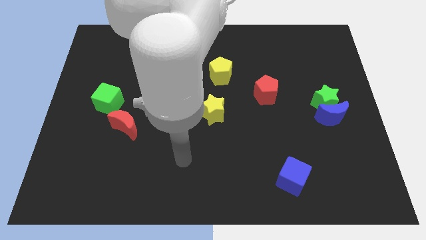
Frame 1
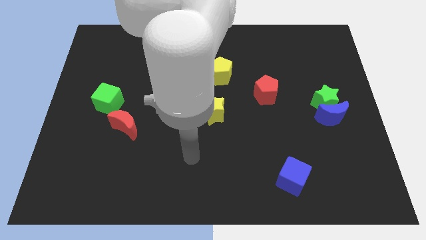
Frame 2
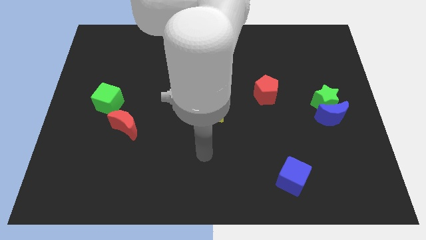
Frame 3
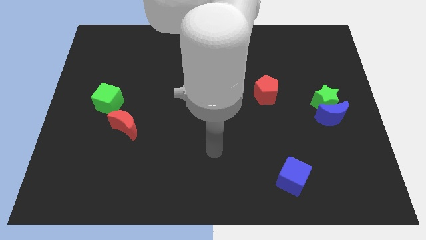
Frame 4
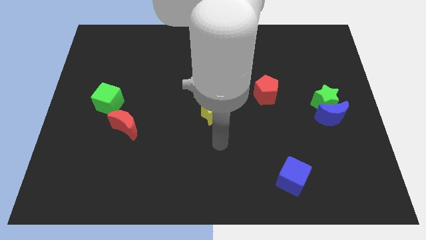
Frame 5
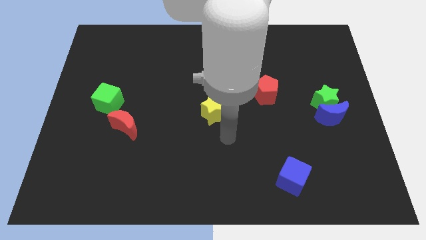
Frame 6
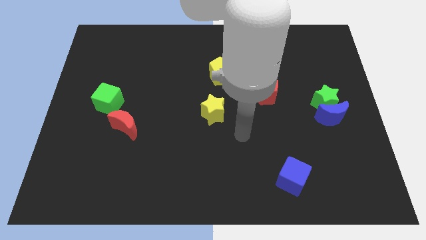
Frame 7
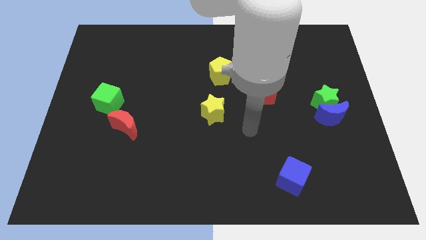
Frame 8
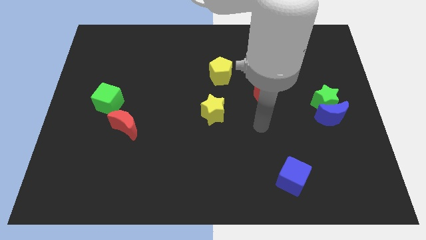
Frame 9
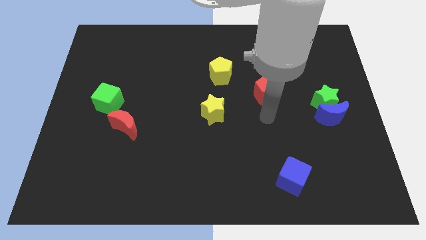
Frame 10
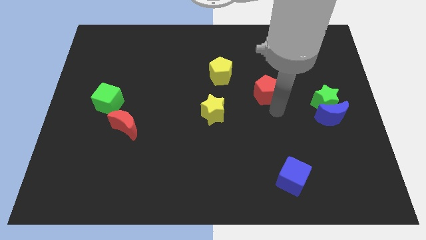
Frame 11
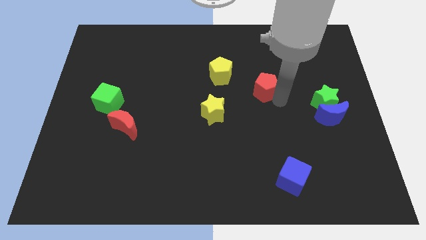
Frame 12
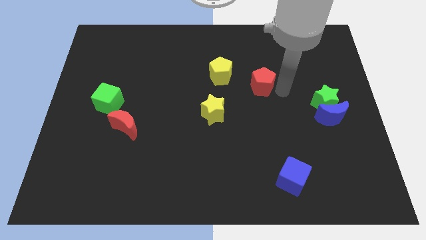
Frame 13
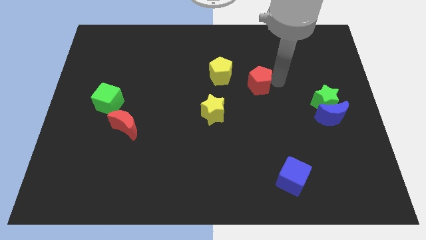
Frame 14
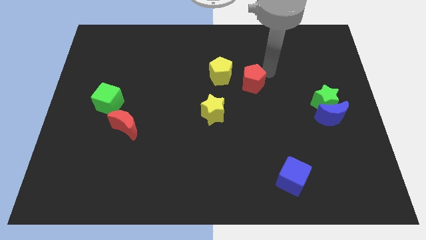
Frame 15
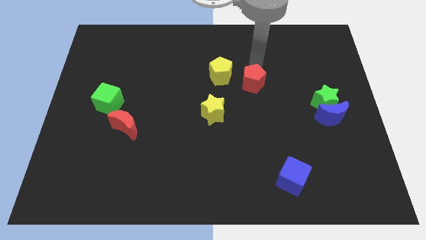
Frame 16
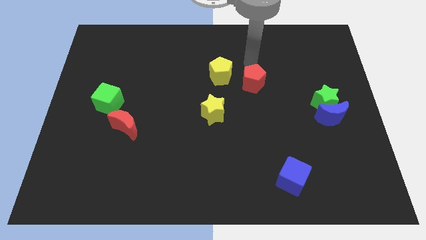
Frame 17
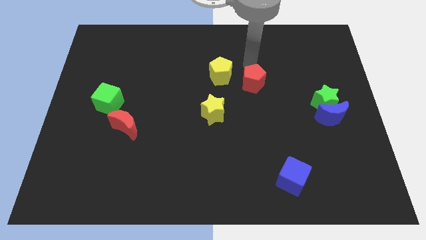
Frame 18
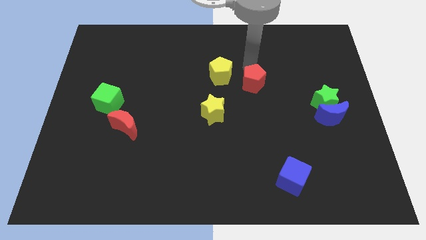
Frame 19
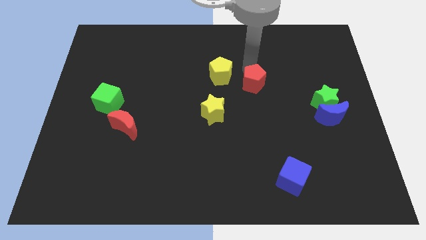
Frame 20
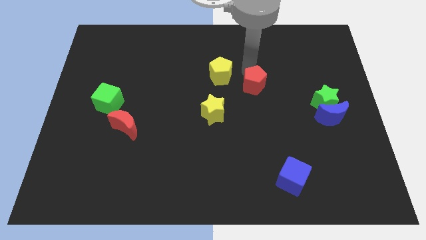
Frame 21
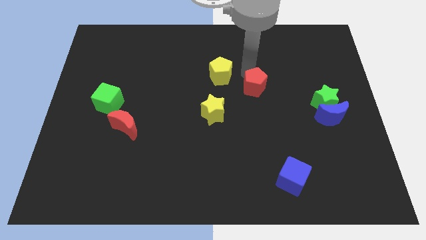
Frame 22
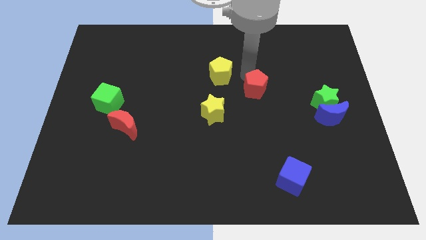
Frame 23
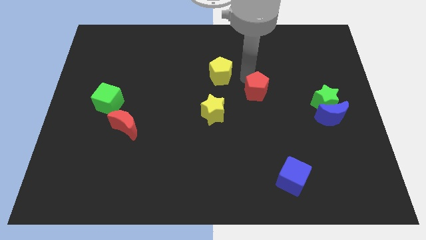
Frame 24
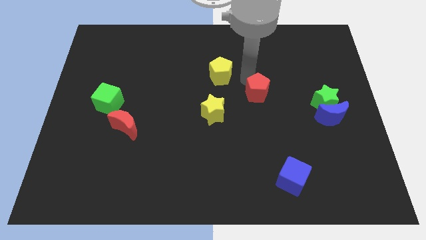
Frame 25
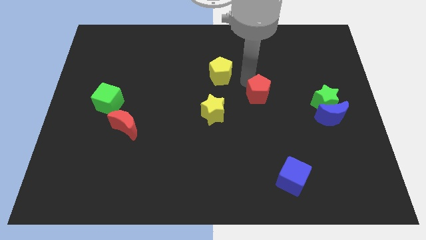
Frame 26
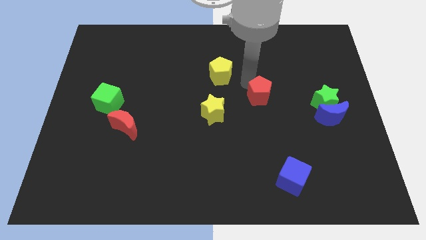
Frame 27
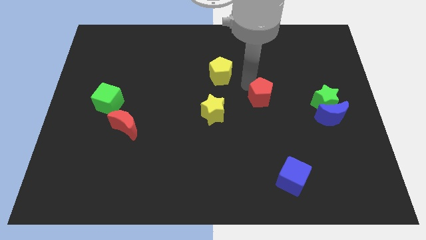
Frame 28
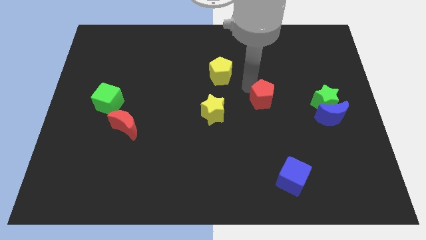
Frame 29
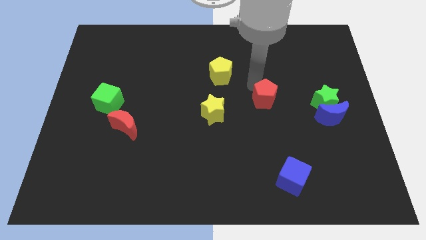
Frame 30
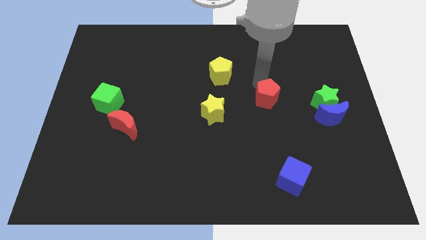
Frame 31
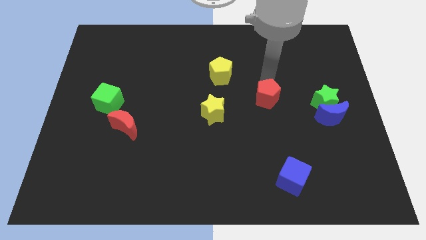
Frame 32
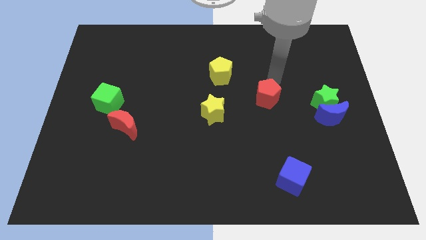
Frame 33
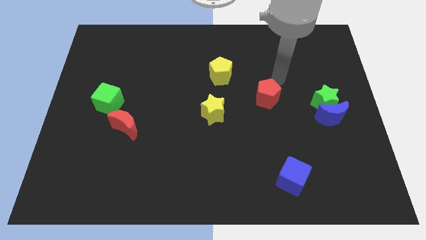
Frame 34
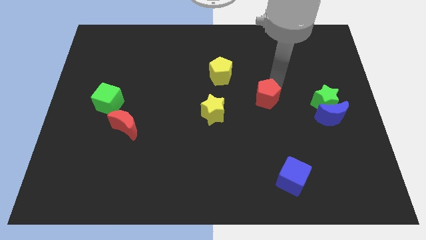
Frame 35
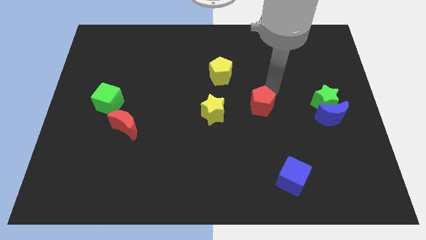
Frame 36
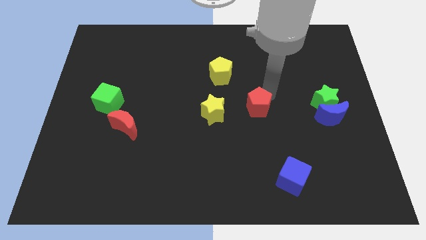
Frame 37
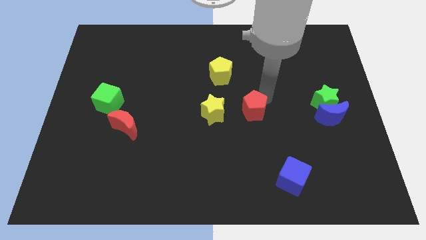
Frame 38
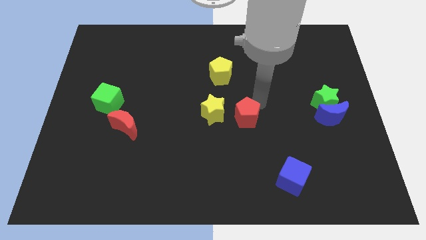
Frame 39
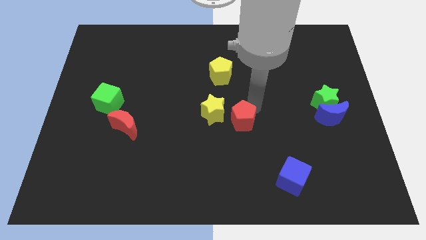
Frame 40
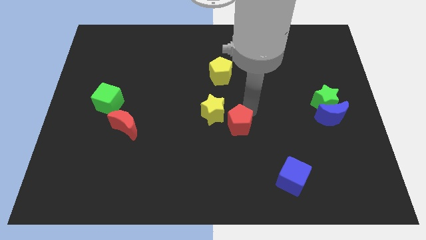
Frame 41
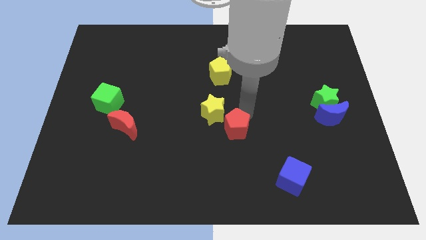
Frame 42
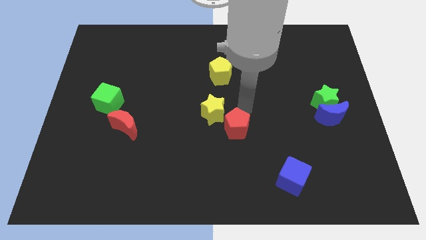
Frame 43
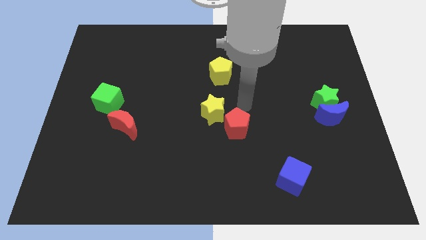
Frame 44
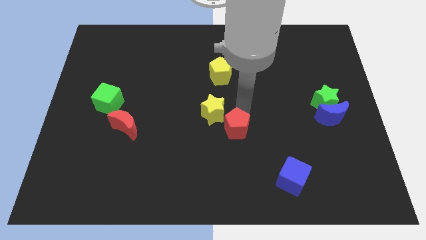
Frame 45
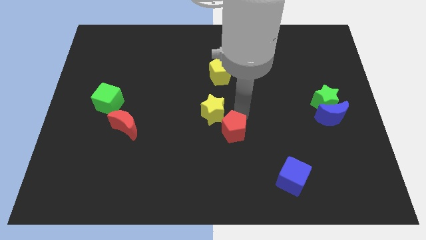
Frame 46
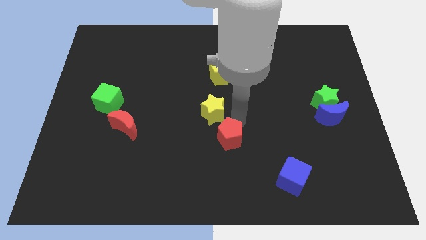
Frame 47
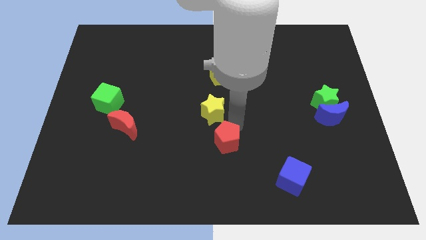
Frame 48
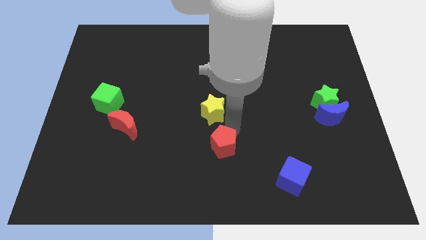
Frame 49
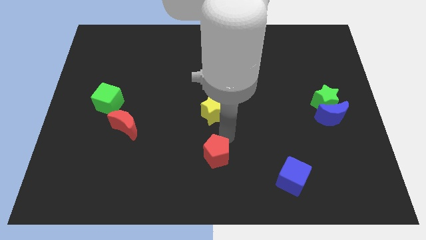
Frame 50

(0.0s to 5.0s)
slide the red pentagon to the bottom

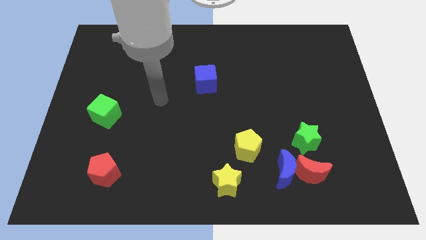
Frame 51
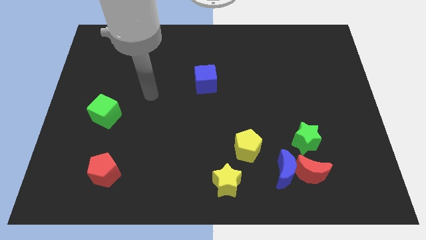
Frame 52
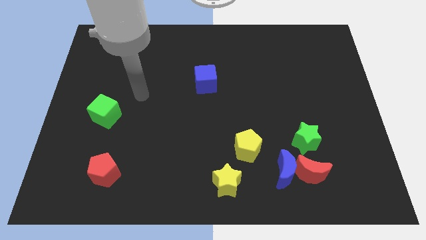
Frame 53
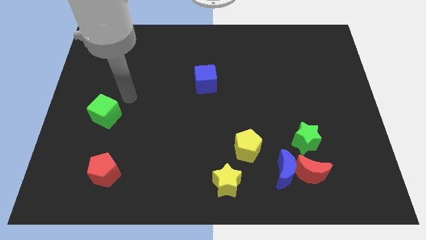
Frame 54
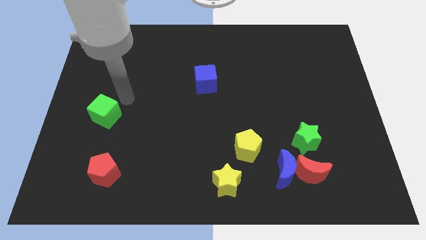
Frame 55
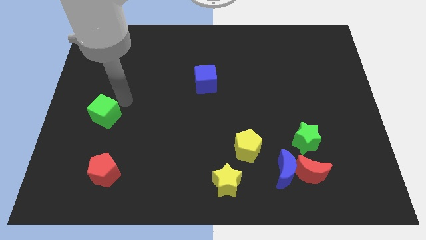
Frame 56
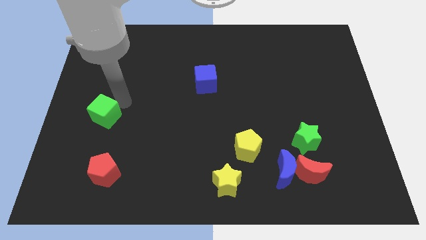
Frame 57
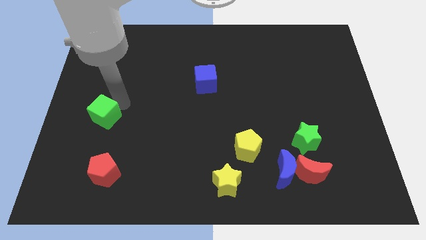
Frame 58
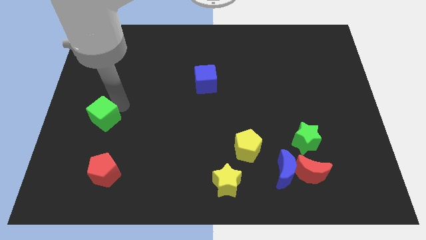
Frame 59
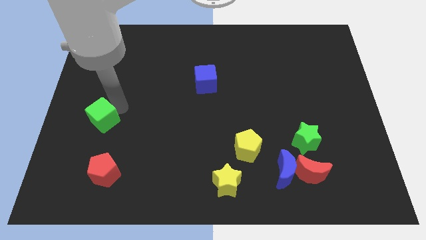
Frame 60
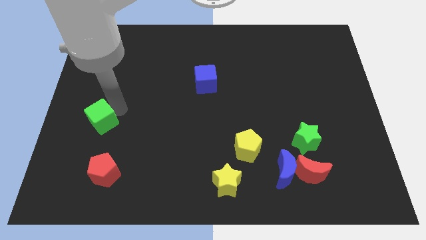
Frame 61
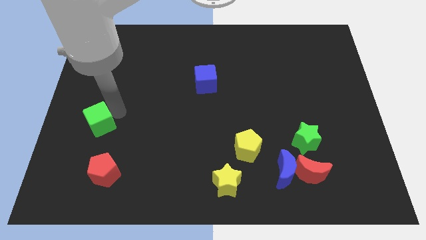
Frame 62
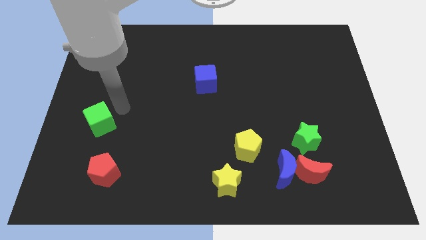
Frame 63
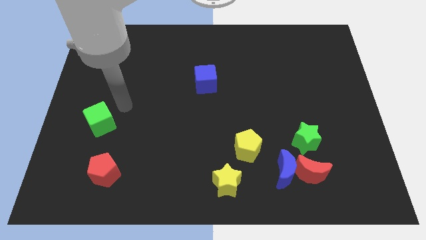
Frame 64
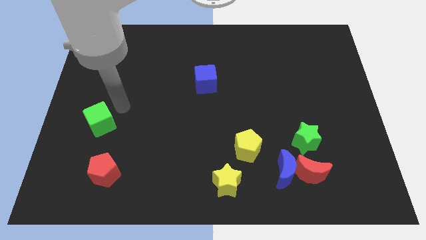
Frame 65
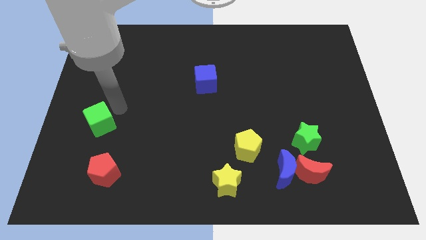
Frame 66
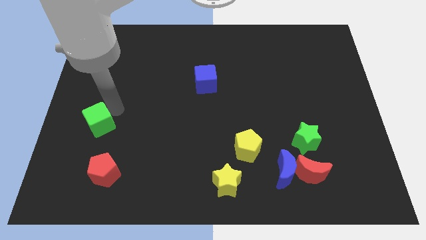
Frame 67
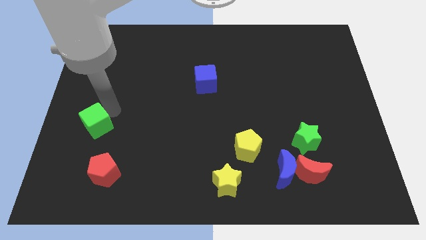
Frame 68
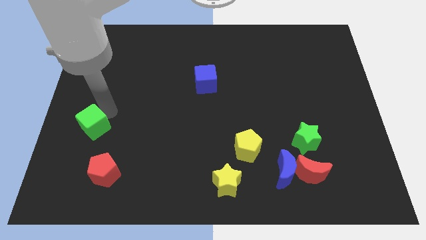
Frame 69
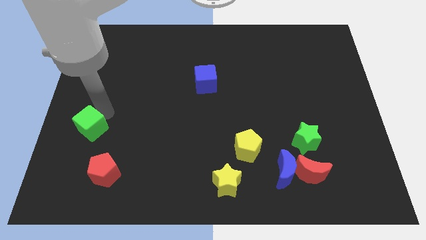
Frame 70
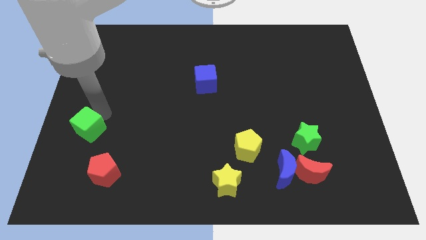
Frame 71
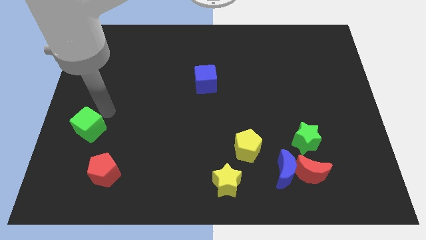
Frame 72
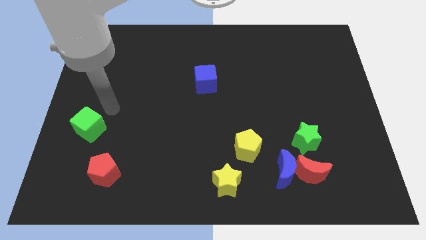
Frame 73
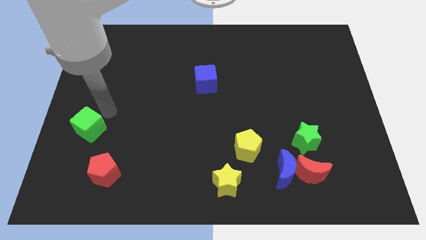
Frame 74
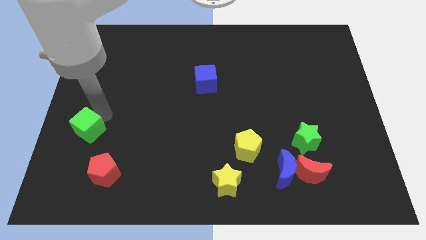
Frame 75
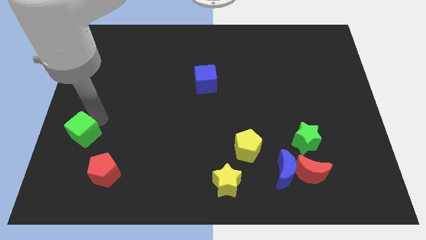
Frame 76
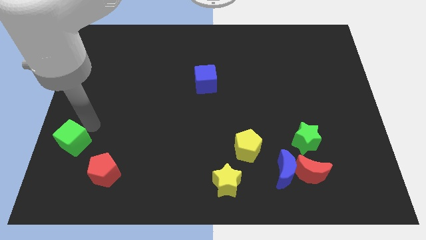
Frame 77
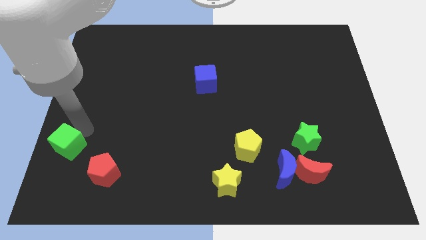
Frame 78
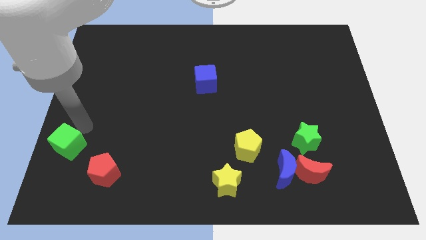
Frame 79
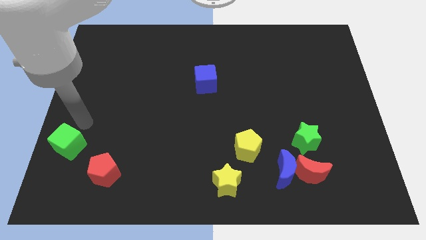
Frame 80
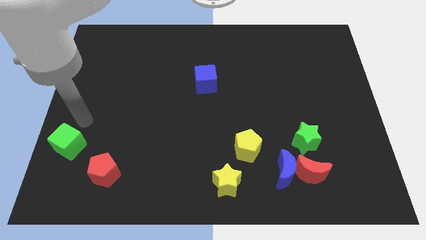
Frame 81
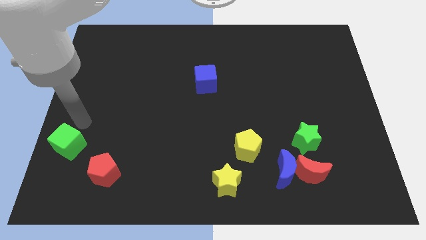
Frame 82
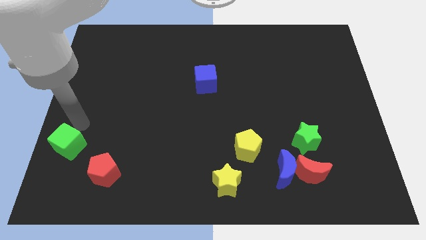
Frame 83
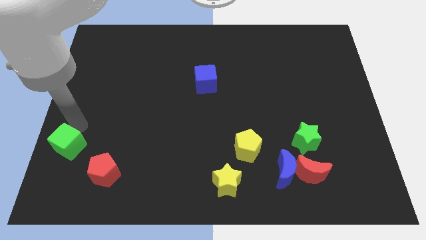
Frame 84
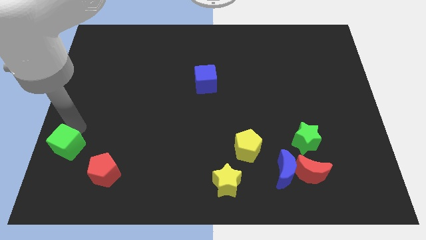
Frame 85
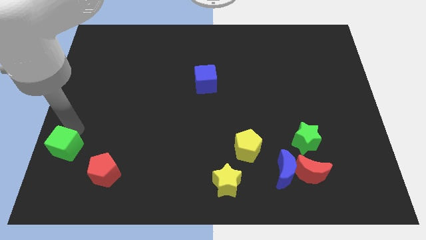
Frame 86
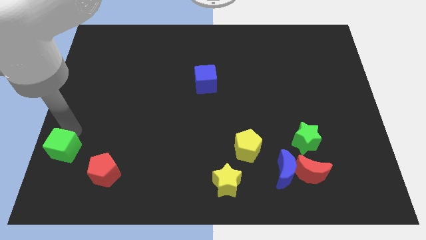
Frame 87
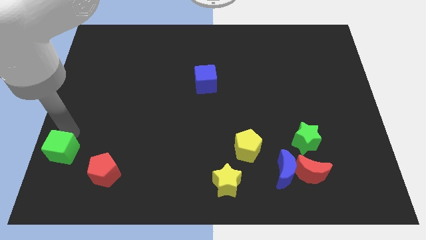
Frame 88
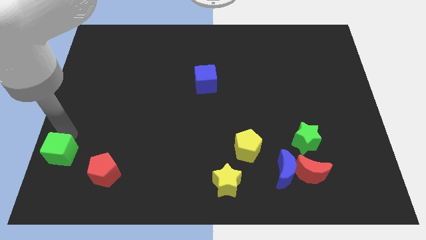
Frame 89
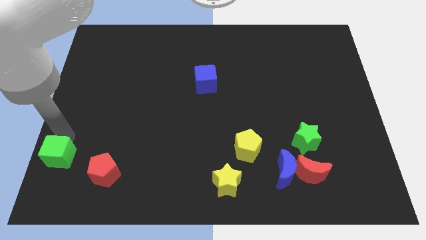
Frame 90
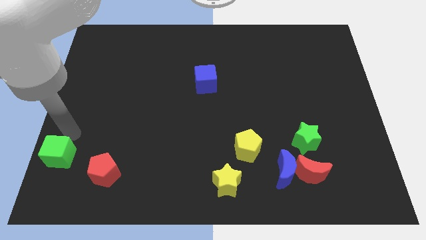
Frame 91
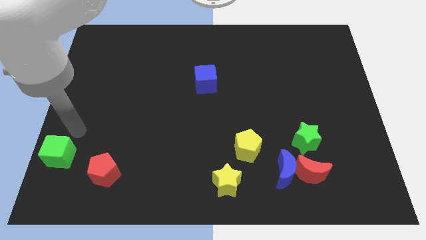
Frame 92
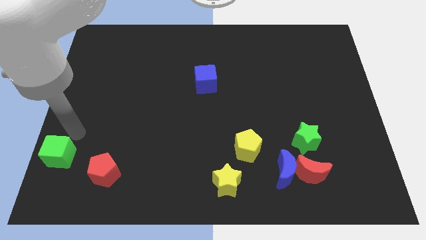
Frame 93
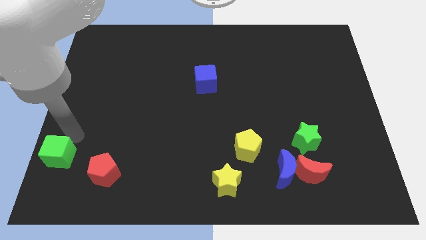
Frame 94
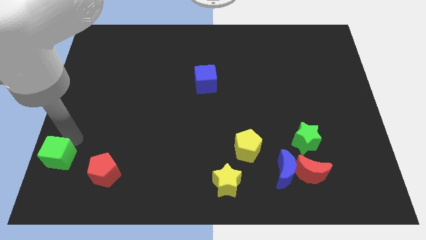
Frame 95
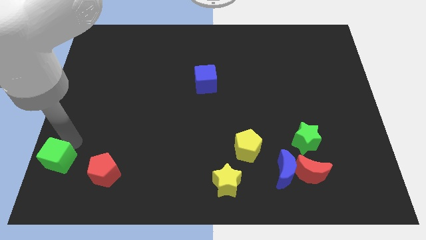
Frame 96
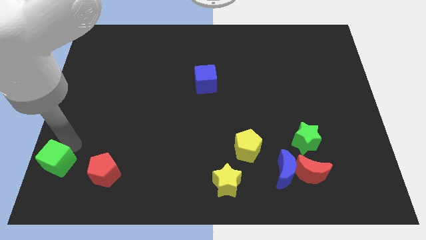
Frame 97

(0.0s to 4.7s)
push the green cube to the bottom left
